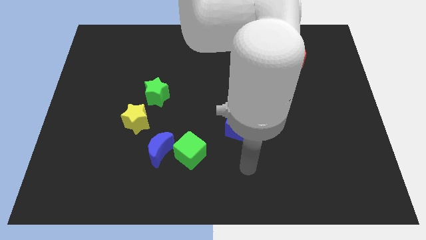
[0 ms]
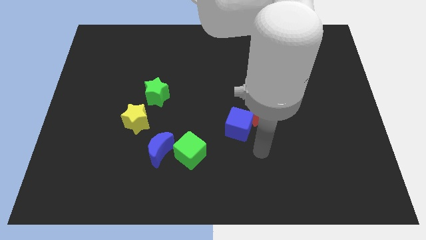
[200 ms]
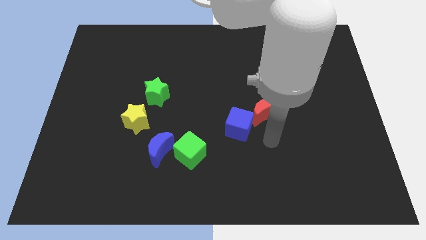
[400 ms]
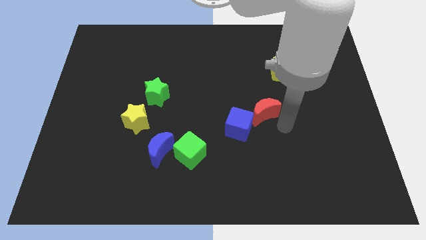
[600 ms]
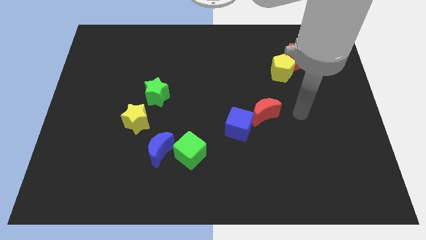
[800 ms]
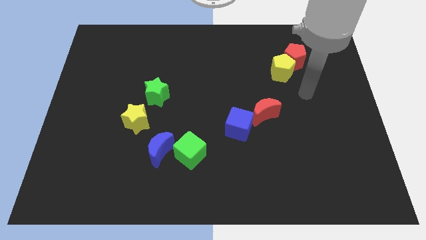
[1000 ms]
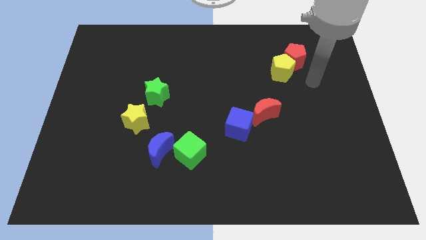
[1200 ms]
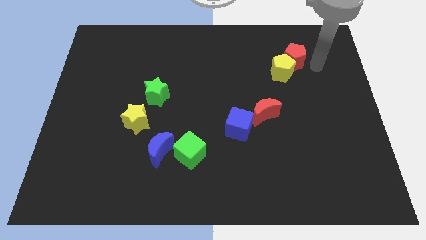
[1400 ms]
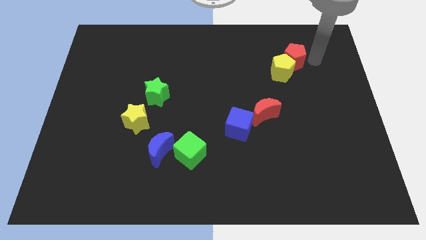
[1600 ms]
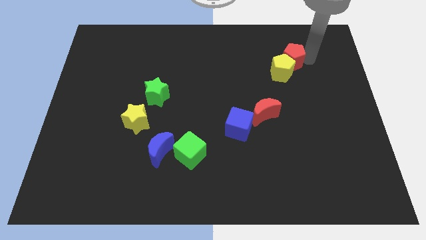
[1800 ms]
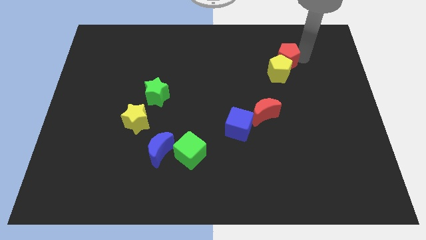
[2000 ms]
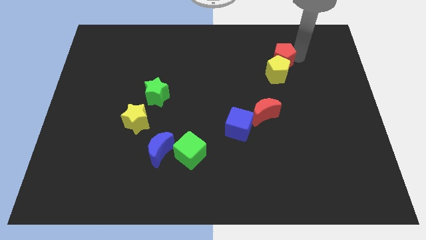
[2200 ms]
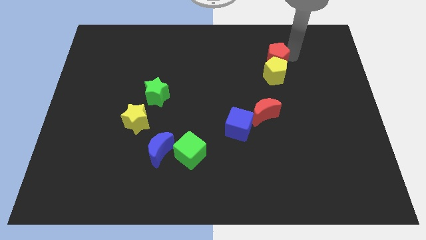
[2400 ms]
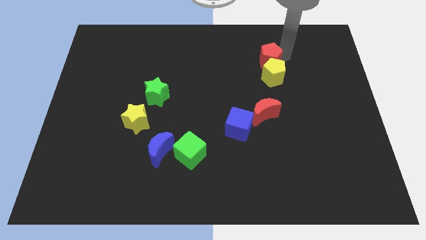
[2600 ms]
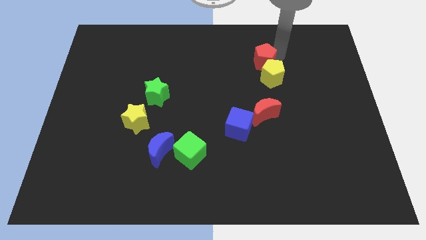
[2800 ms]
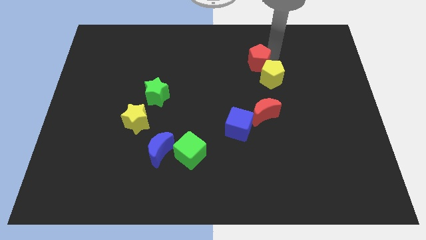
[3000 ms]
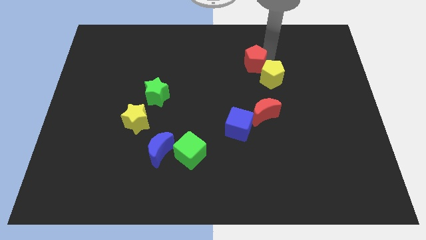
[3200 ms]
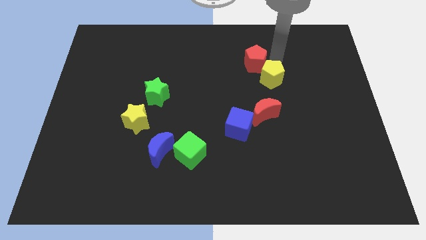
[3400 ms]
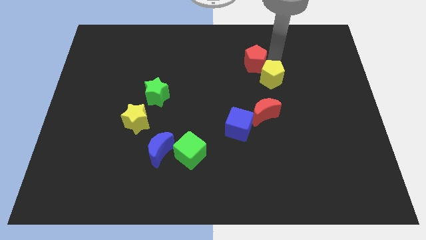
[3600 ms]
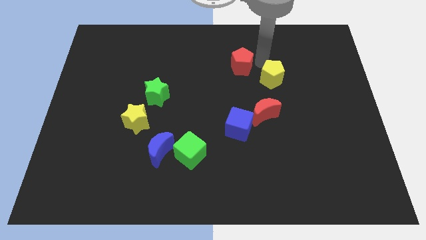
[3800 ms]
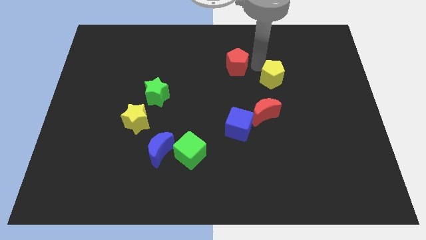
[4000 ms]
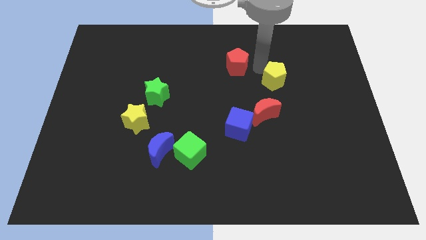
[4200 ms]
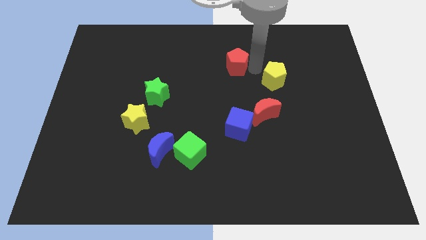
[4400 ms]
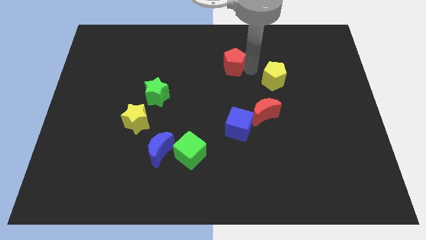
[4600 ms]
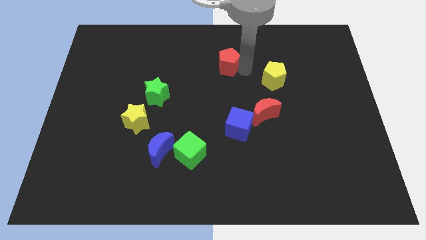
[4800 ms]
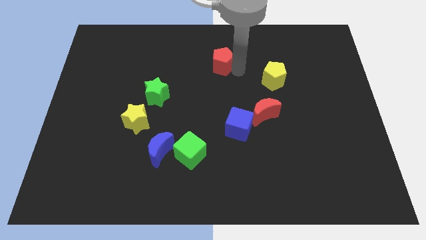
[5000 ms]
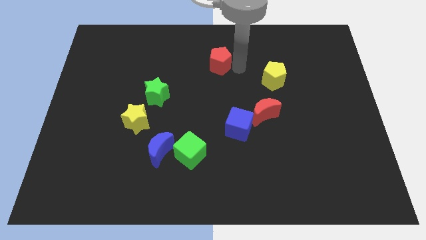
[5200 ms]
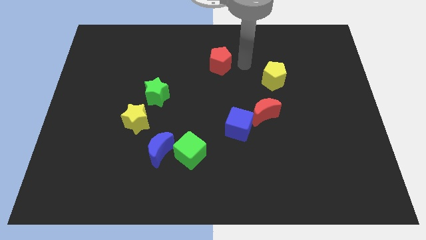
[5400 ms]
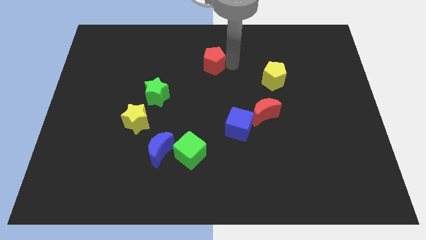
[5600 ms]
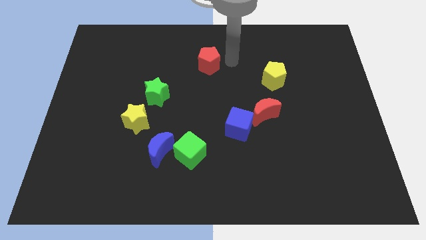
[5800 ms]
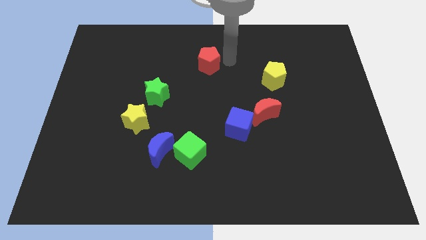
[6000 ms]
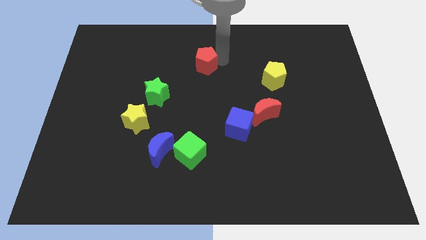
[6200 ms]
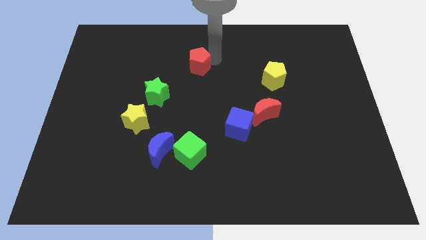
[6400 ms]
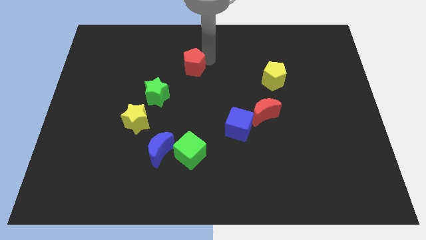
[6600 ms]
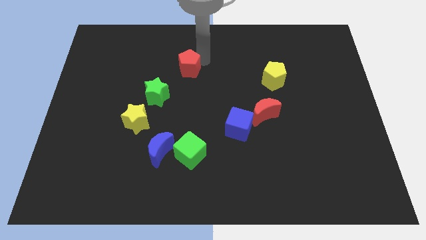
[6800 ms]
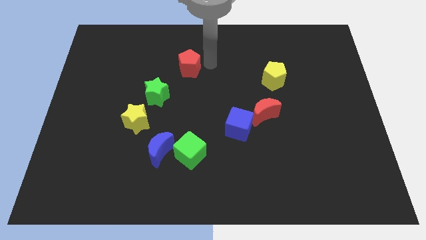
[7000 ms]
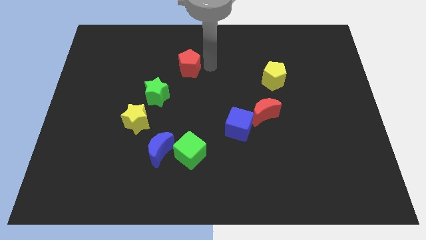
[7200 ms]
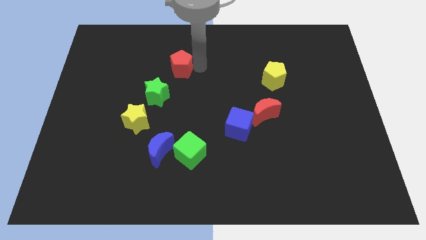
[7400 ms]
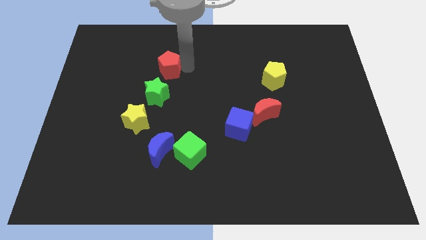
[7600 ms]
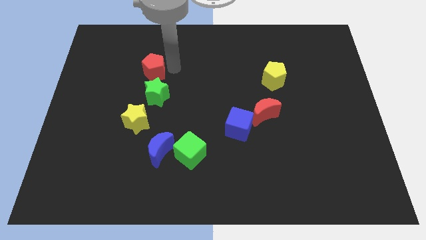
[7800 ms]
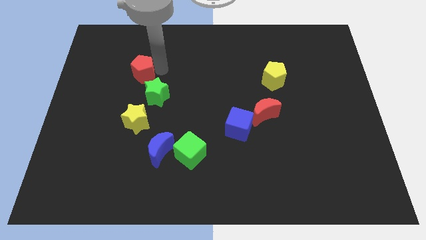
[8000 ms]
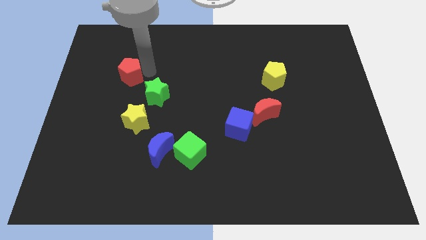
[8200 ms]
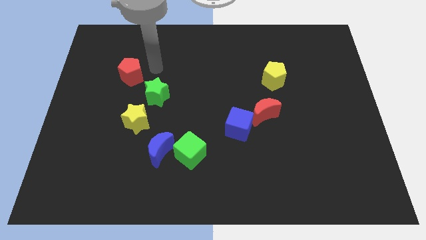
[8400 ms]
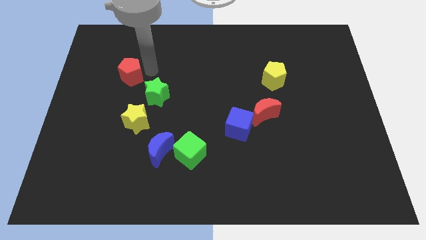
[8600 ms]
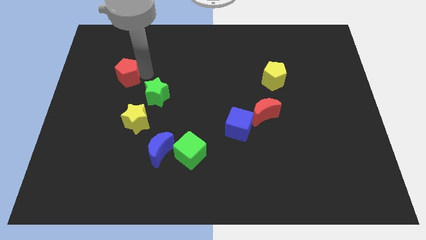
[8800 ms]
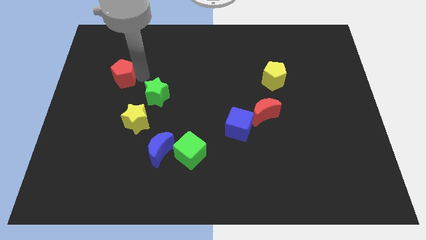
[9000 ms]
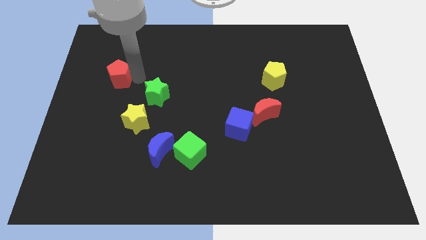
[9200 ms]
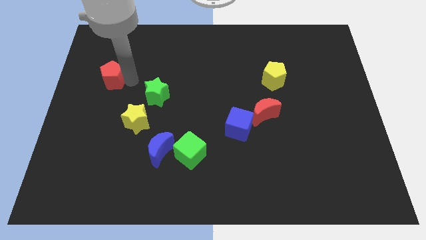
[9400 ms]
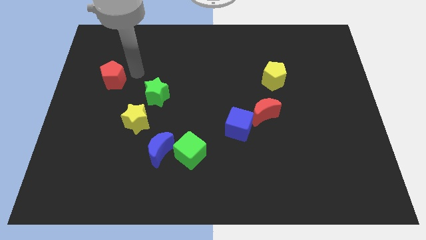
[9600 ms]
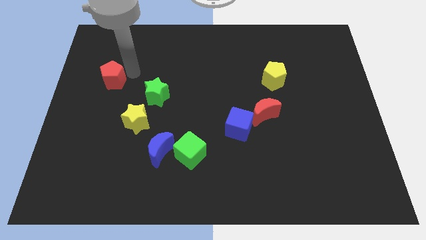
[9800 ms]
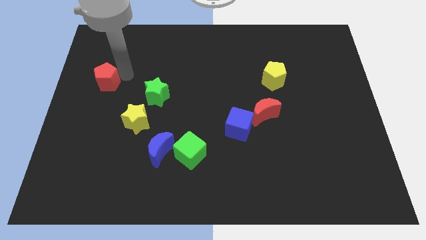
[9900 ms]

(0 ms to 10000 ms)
push the red pentagon to the left side of the board

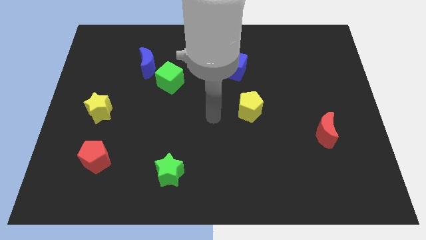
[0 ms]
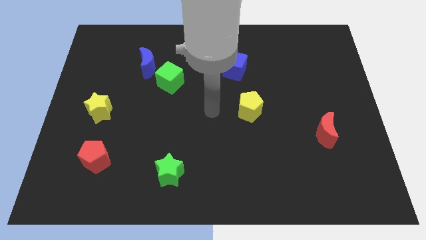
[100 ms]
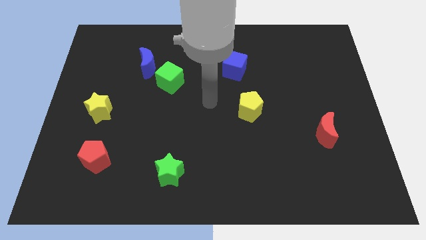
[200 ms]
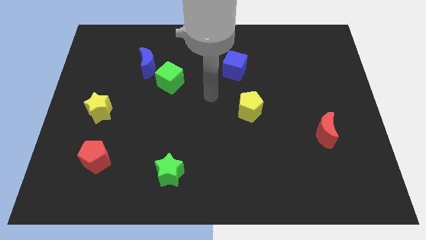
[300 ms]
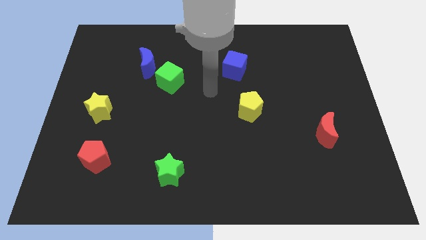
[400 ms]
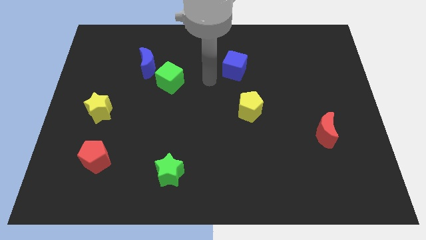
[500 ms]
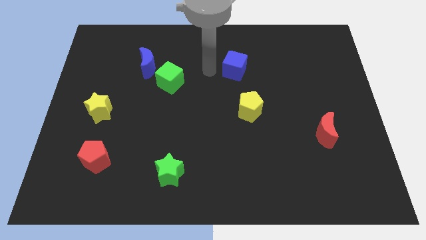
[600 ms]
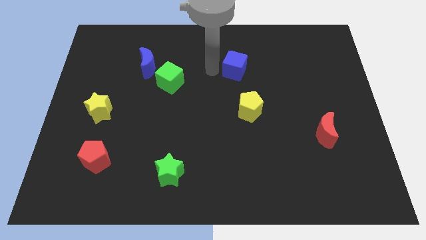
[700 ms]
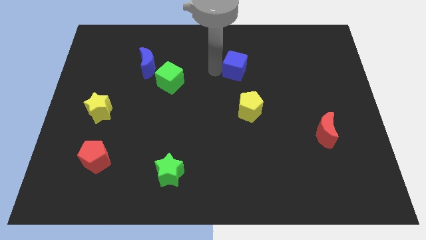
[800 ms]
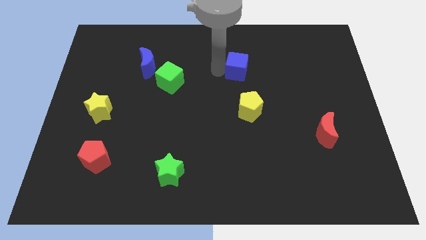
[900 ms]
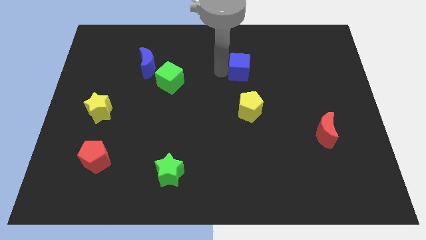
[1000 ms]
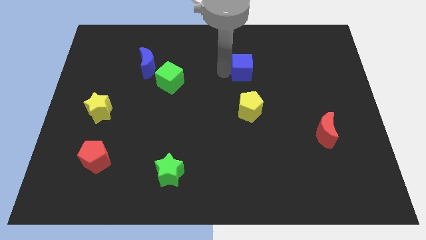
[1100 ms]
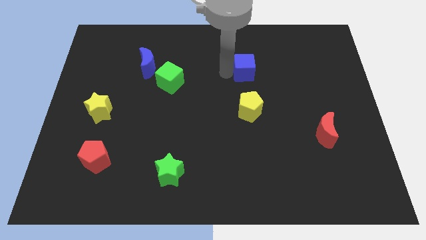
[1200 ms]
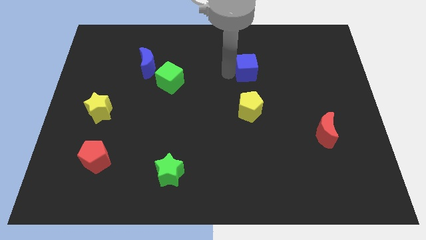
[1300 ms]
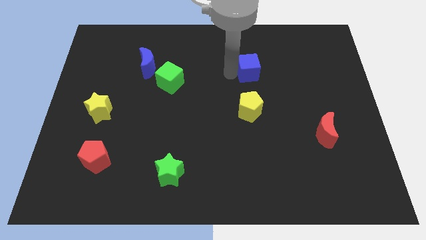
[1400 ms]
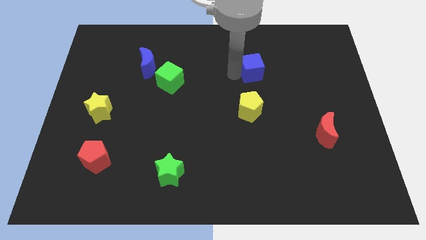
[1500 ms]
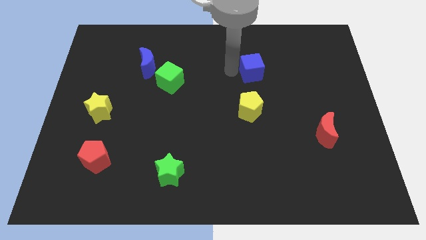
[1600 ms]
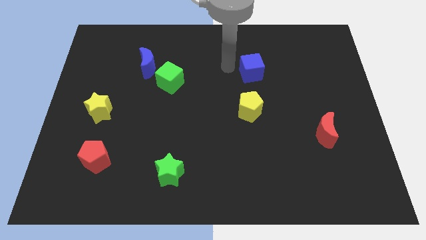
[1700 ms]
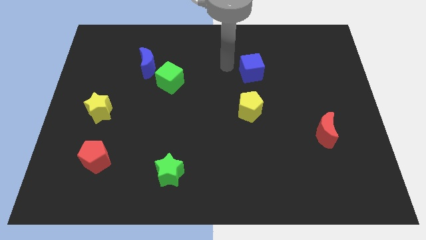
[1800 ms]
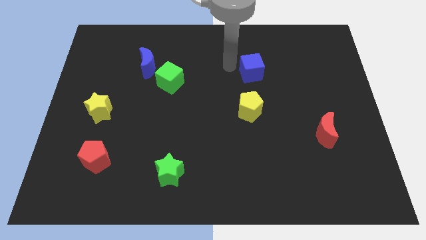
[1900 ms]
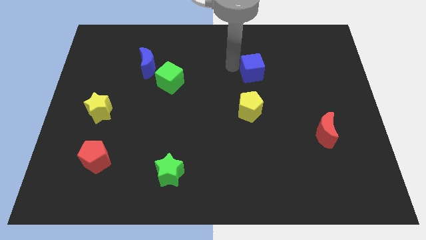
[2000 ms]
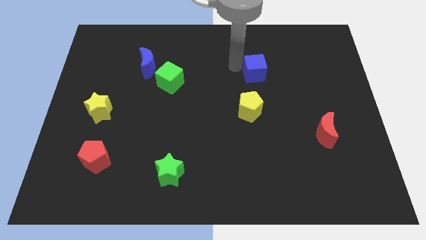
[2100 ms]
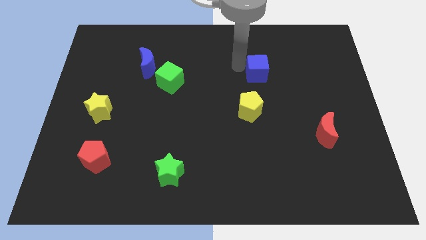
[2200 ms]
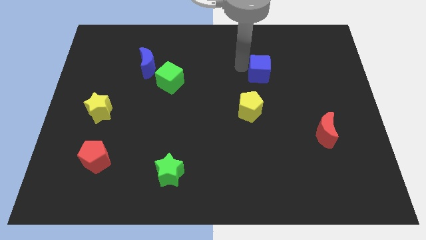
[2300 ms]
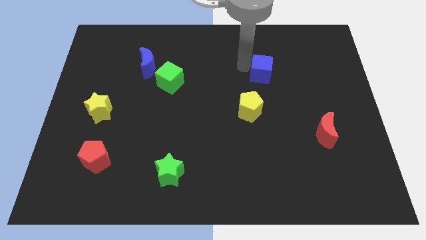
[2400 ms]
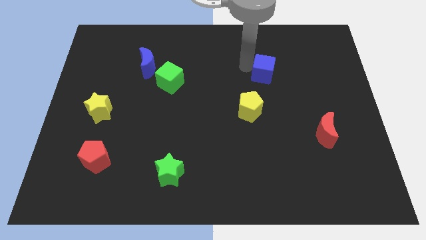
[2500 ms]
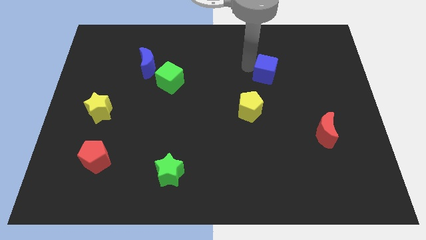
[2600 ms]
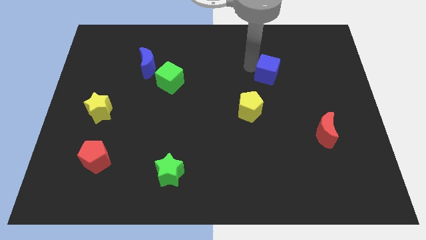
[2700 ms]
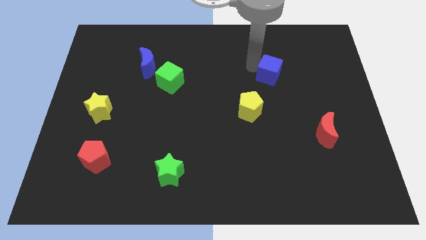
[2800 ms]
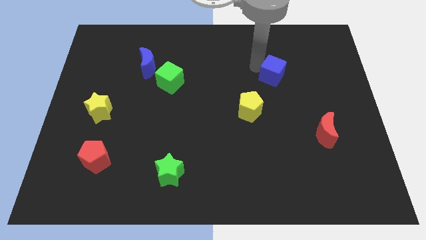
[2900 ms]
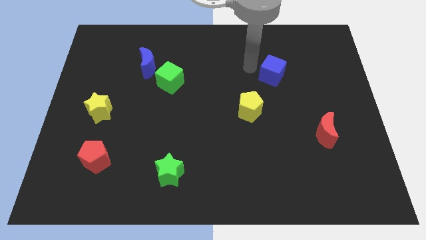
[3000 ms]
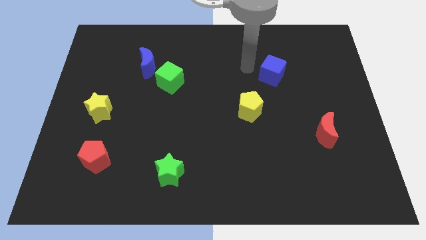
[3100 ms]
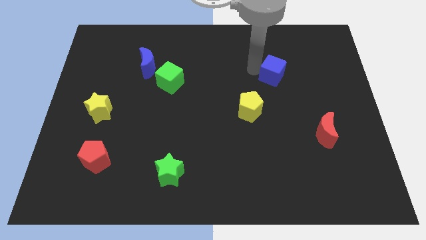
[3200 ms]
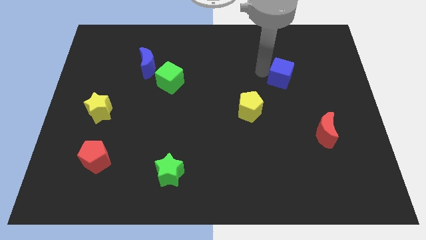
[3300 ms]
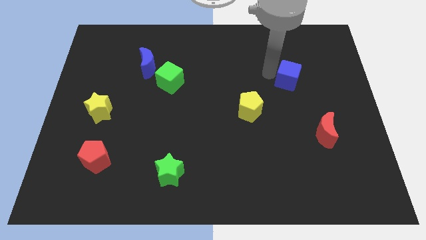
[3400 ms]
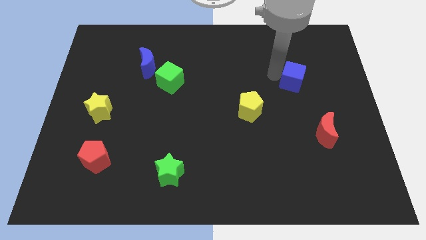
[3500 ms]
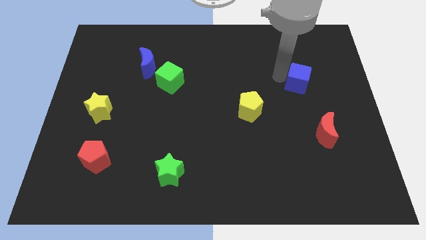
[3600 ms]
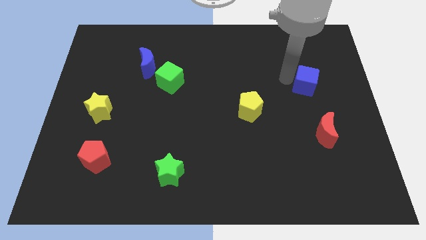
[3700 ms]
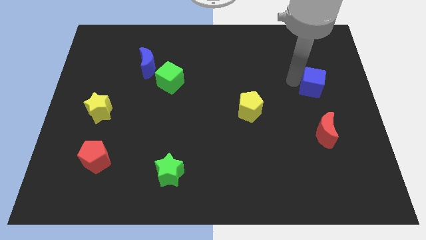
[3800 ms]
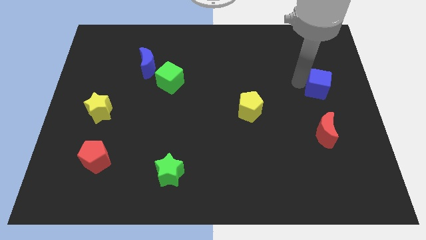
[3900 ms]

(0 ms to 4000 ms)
put the blue cube to the center right
